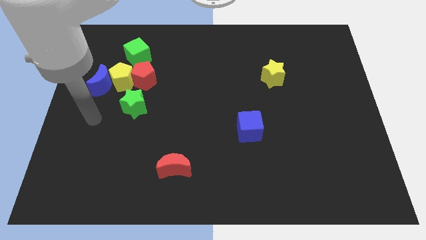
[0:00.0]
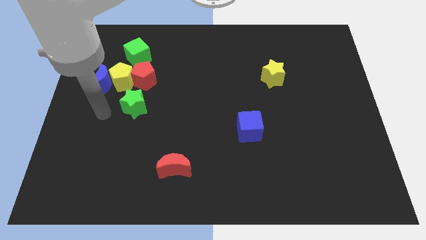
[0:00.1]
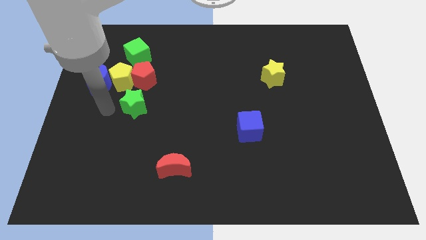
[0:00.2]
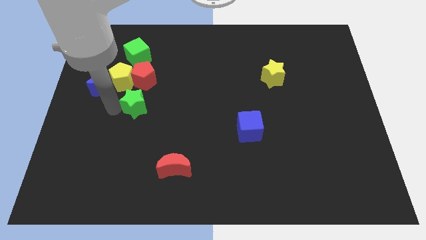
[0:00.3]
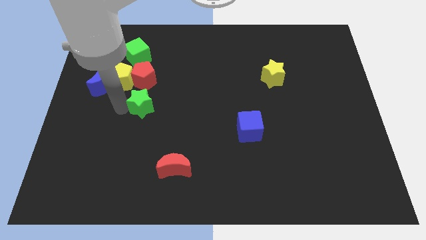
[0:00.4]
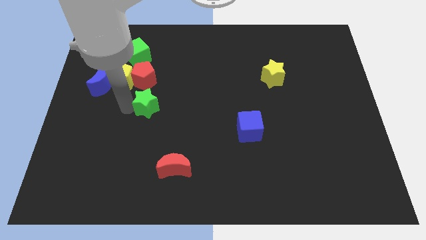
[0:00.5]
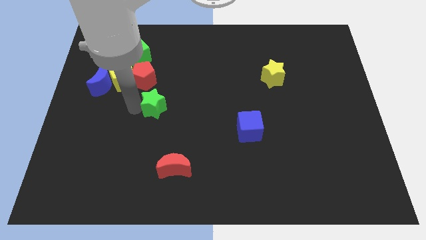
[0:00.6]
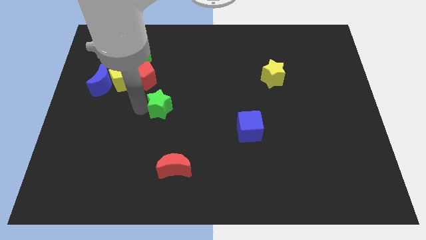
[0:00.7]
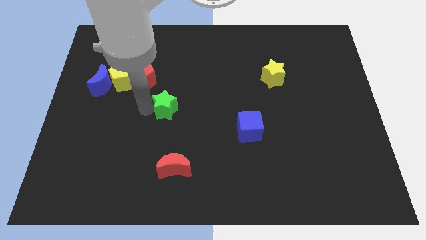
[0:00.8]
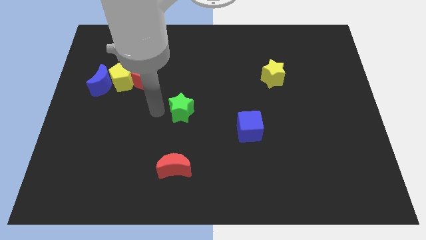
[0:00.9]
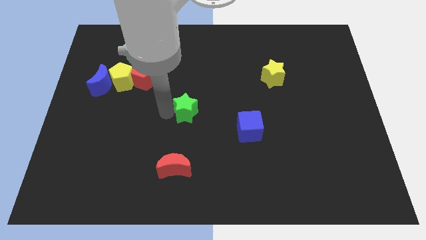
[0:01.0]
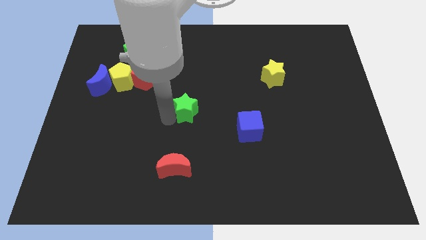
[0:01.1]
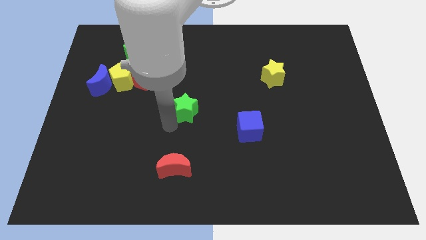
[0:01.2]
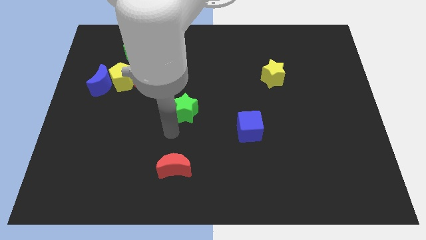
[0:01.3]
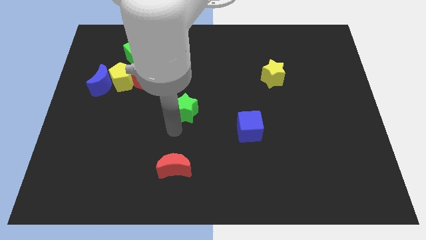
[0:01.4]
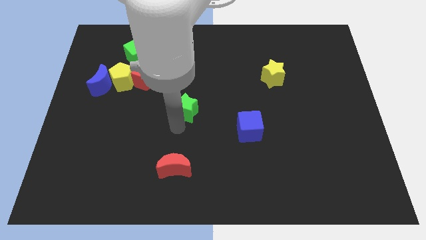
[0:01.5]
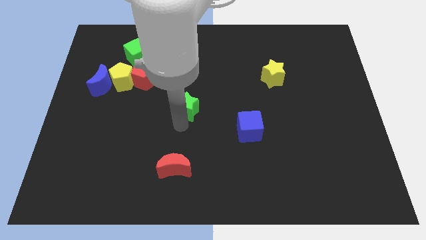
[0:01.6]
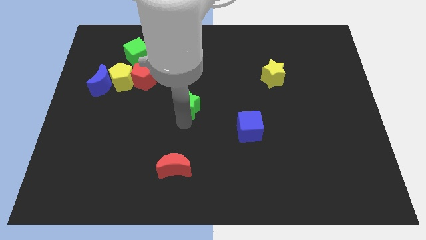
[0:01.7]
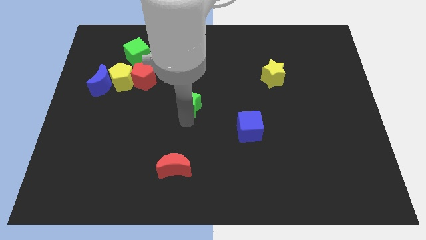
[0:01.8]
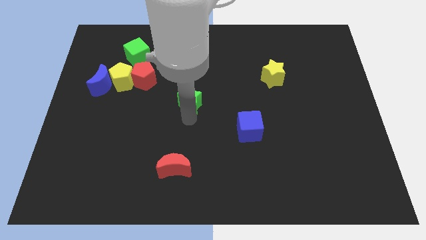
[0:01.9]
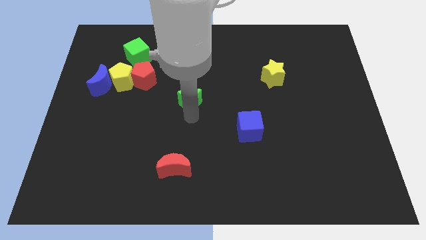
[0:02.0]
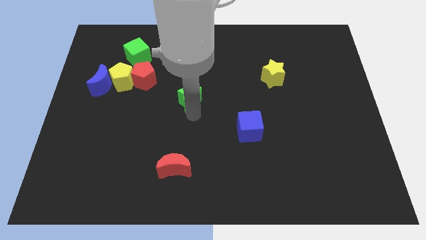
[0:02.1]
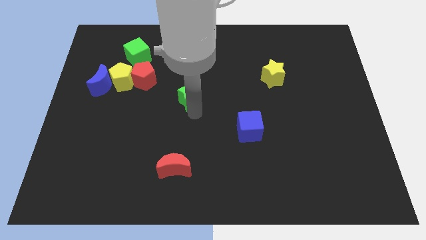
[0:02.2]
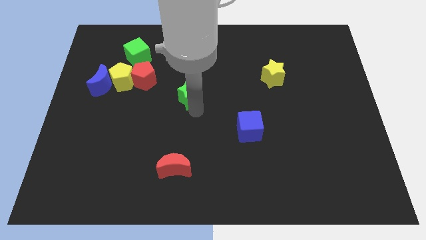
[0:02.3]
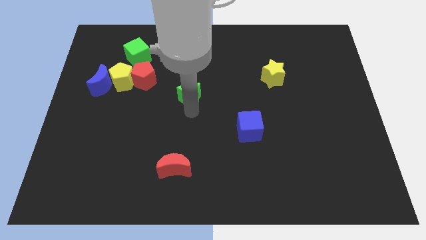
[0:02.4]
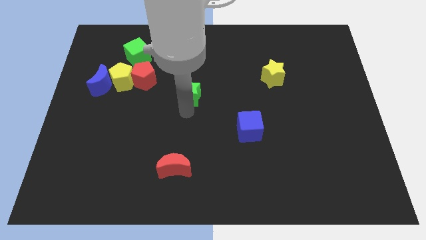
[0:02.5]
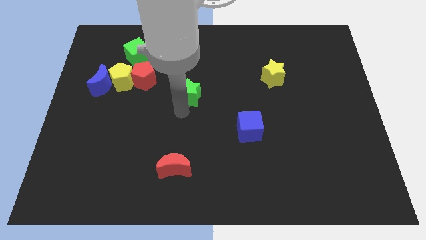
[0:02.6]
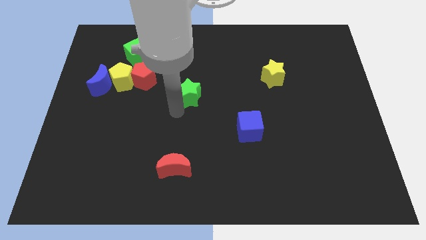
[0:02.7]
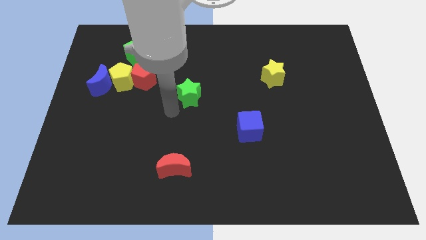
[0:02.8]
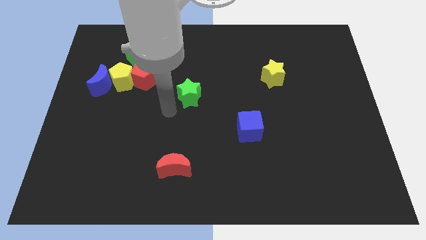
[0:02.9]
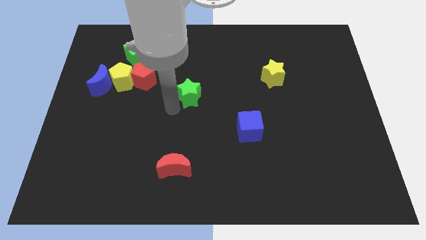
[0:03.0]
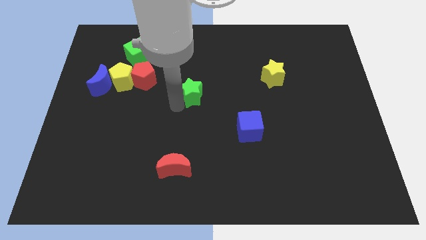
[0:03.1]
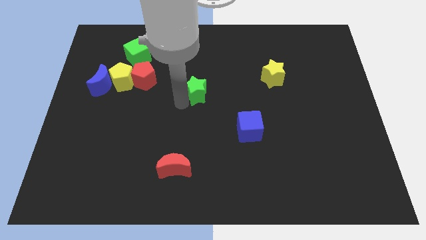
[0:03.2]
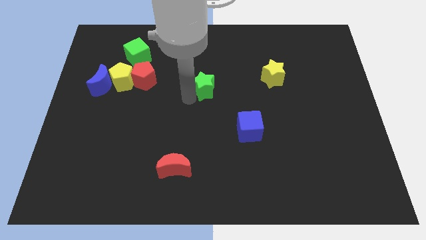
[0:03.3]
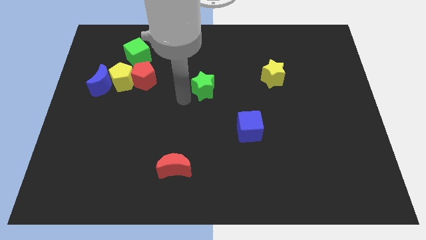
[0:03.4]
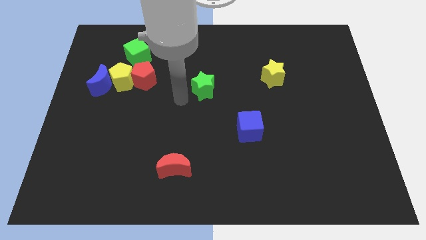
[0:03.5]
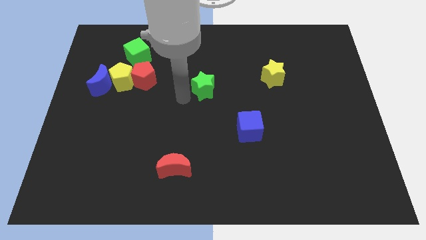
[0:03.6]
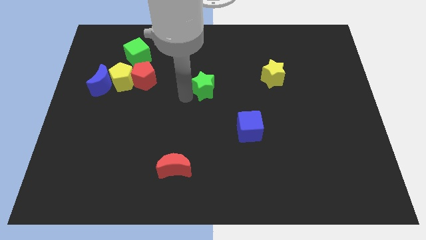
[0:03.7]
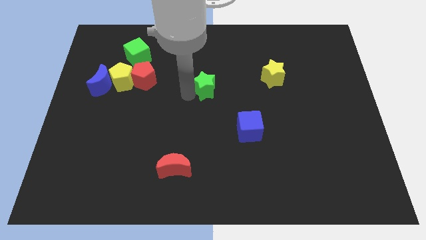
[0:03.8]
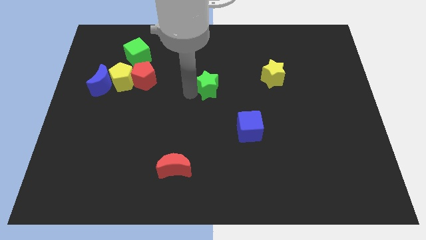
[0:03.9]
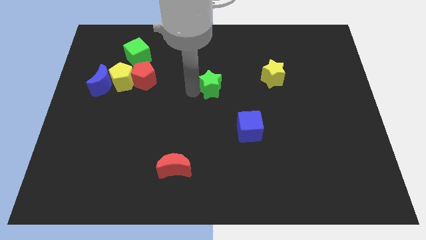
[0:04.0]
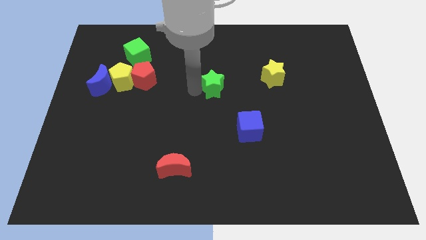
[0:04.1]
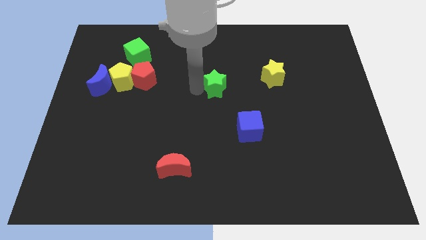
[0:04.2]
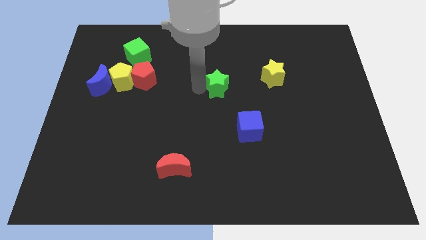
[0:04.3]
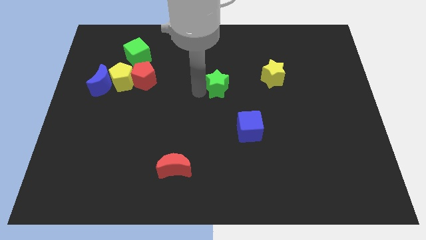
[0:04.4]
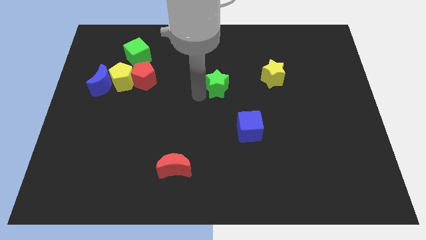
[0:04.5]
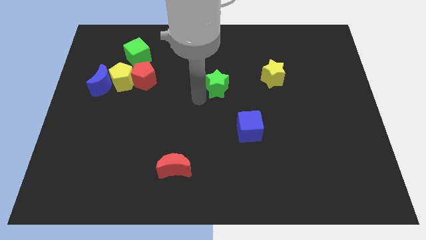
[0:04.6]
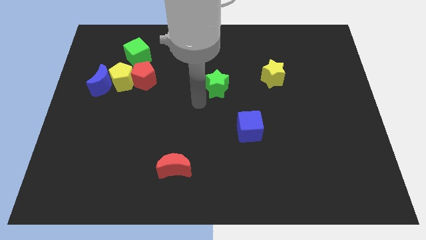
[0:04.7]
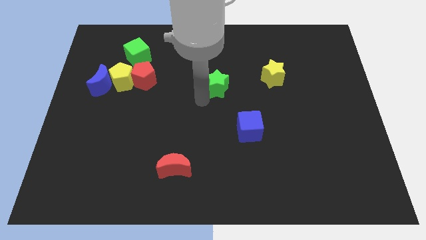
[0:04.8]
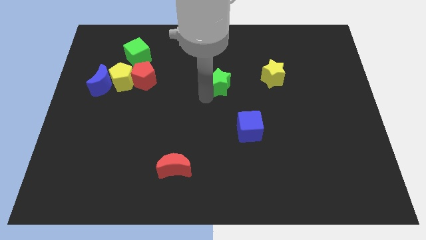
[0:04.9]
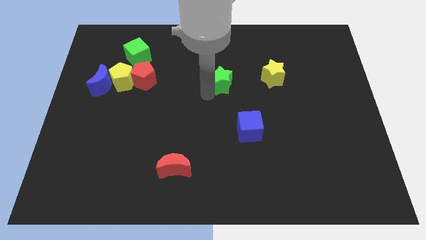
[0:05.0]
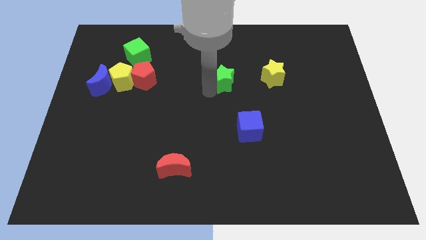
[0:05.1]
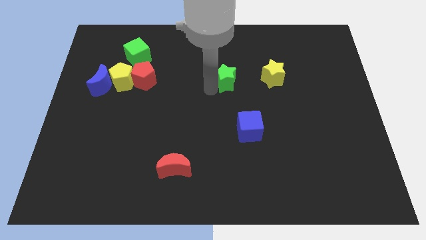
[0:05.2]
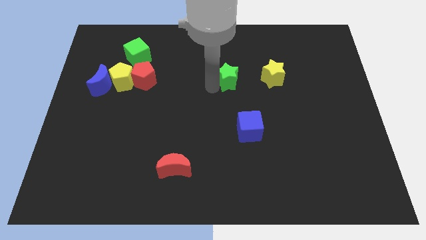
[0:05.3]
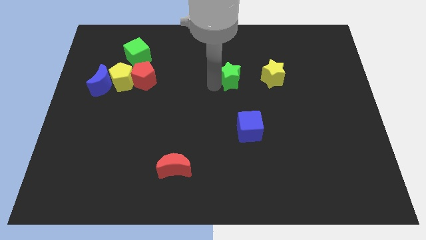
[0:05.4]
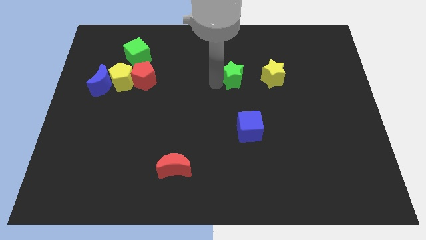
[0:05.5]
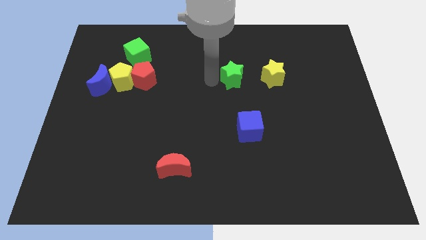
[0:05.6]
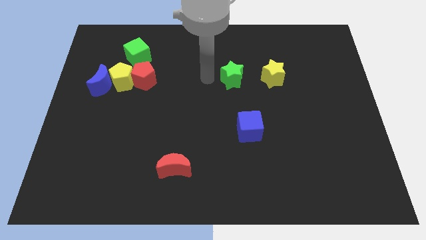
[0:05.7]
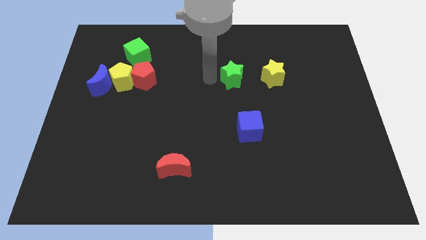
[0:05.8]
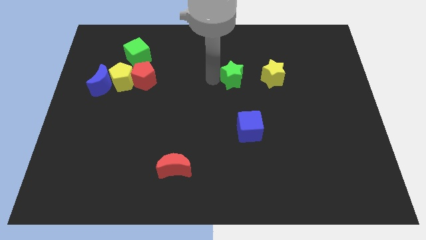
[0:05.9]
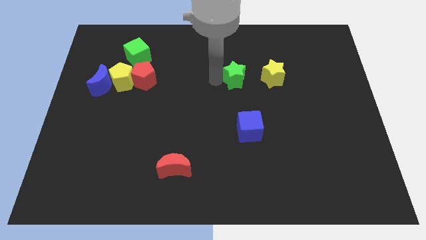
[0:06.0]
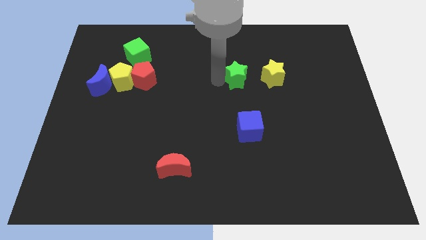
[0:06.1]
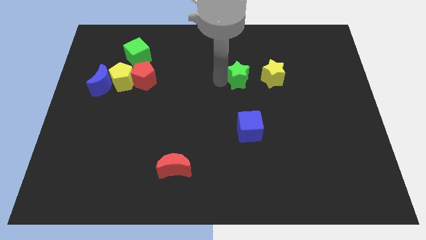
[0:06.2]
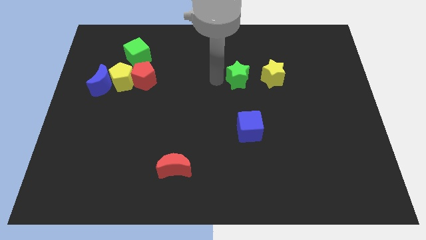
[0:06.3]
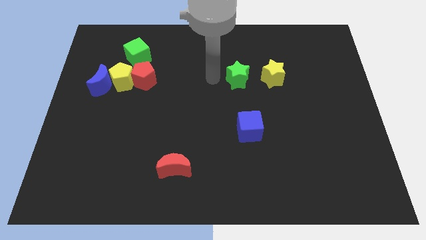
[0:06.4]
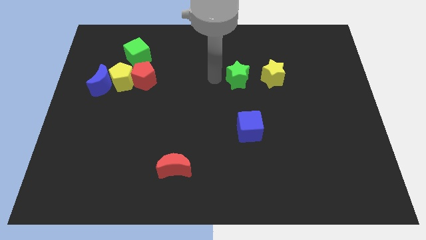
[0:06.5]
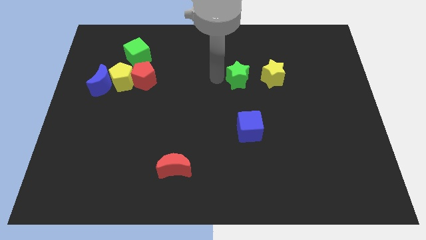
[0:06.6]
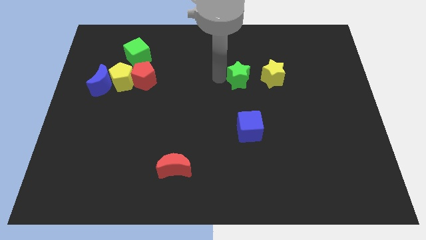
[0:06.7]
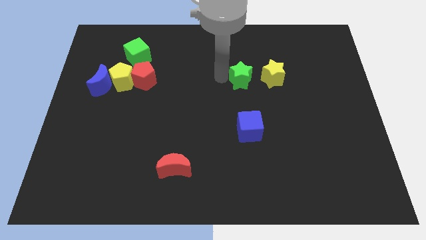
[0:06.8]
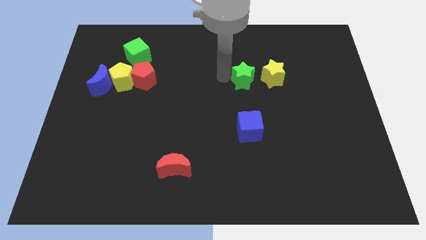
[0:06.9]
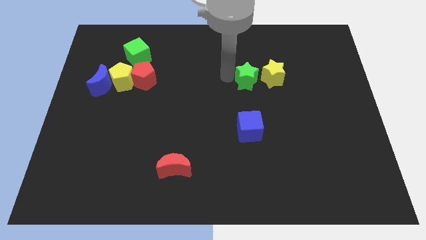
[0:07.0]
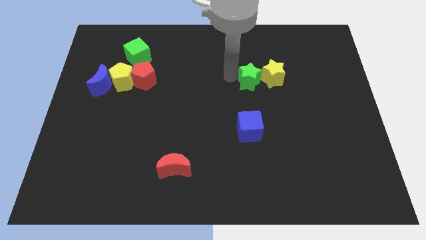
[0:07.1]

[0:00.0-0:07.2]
move the green star close to the yellow star
